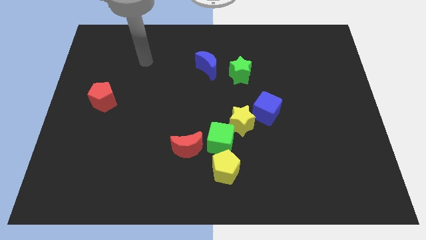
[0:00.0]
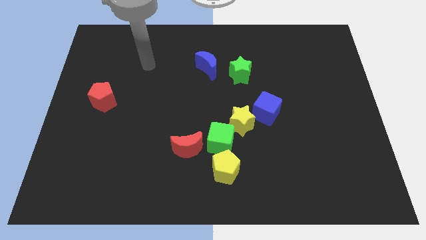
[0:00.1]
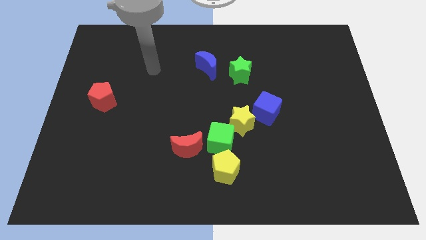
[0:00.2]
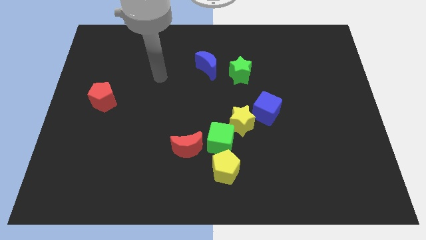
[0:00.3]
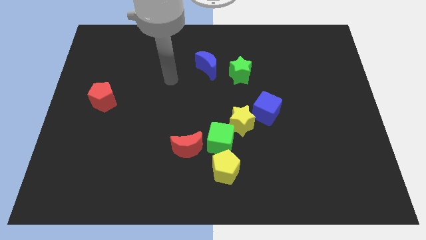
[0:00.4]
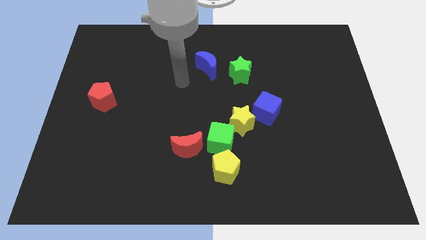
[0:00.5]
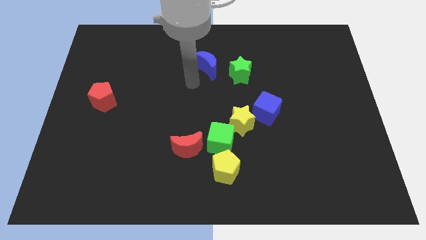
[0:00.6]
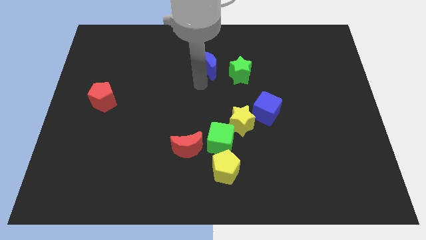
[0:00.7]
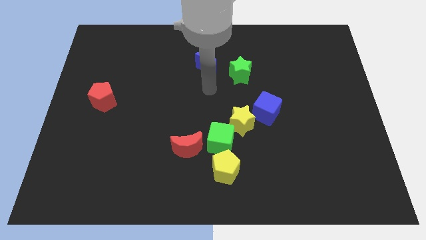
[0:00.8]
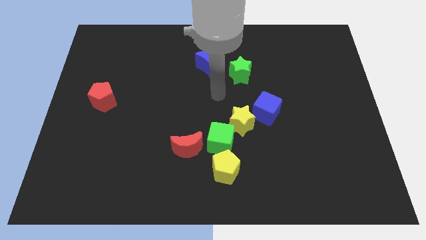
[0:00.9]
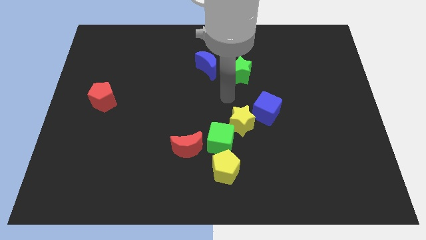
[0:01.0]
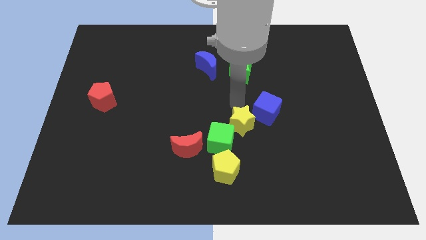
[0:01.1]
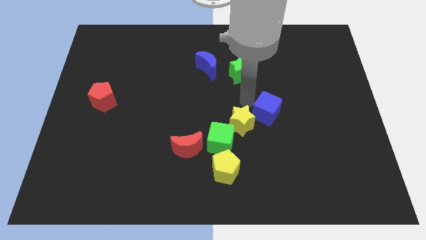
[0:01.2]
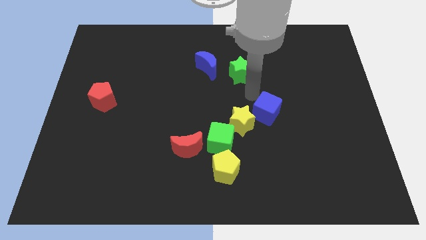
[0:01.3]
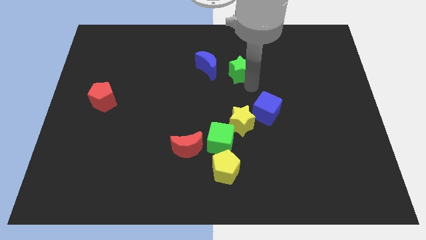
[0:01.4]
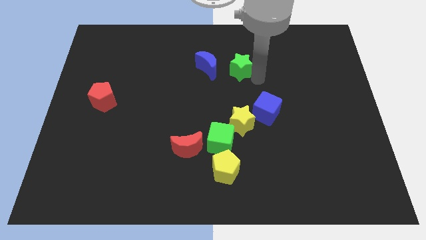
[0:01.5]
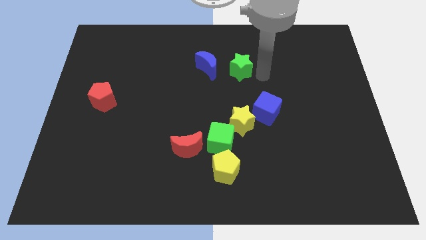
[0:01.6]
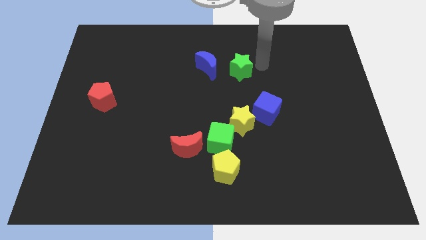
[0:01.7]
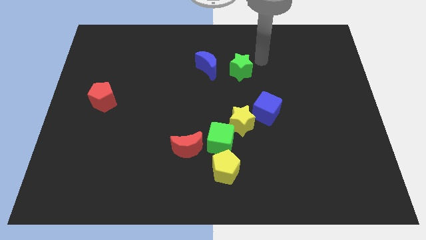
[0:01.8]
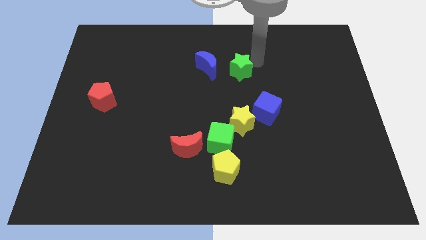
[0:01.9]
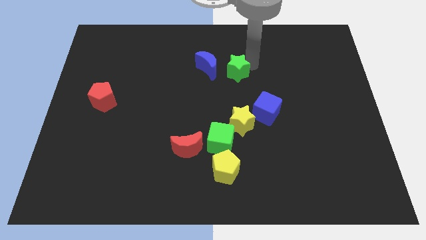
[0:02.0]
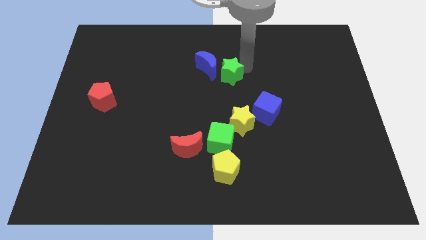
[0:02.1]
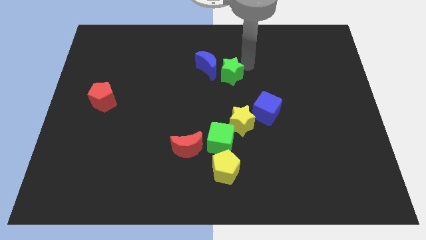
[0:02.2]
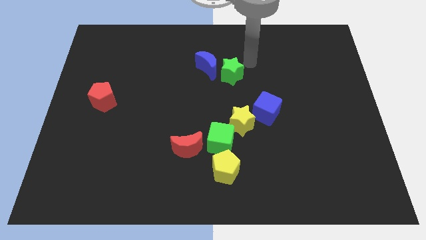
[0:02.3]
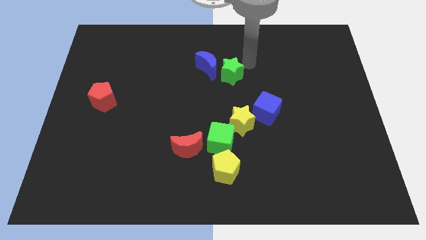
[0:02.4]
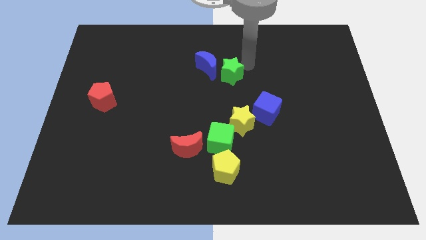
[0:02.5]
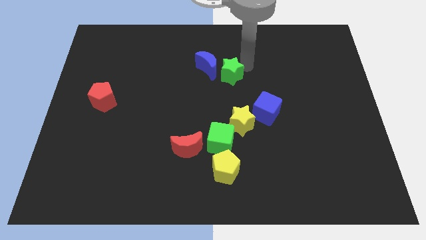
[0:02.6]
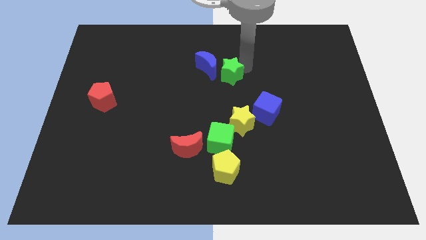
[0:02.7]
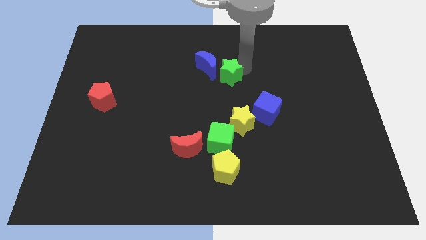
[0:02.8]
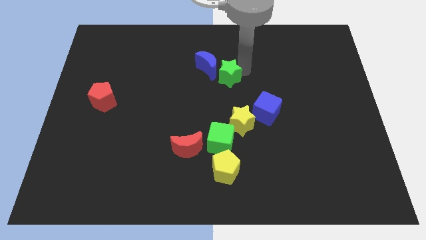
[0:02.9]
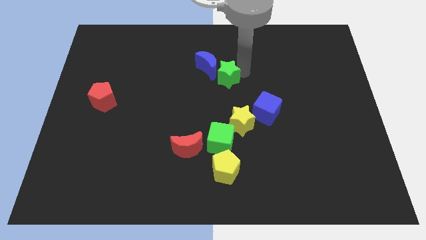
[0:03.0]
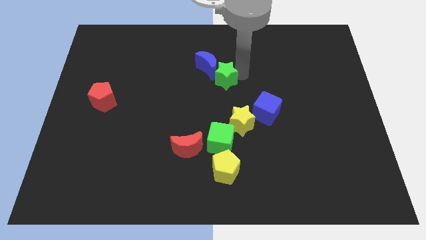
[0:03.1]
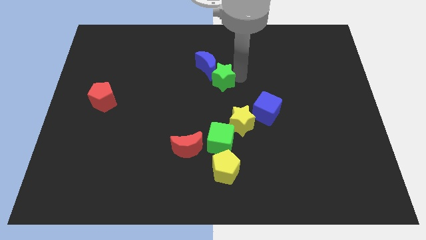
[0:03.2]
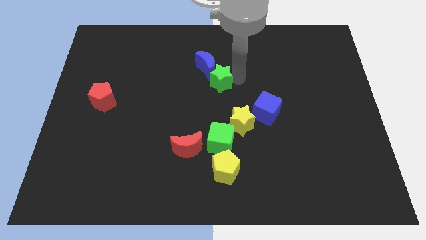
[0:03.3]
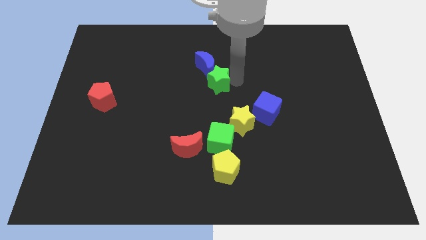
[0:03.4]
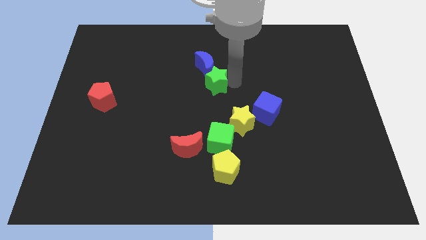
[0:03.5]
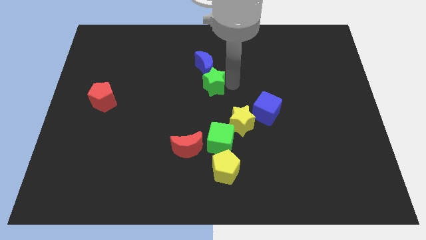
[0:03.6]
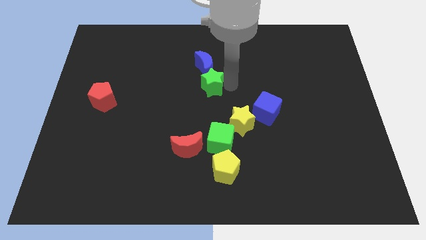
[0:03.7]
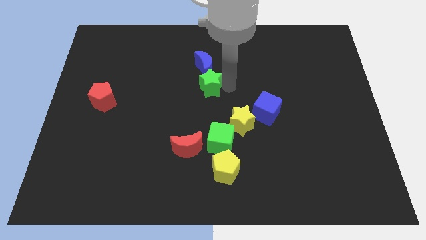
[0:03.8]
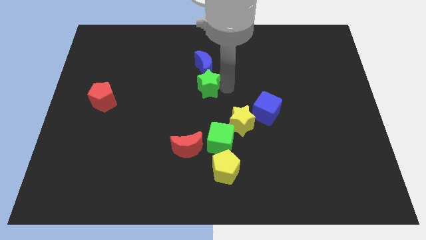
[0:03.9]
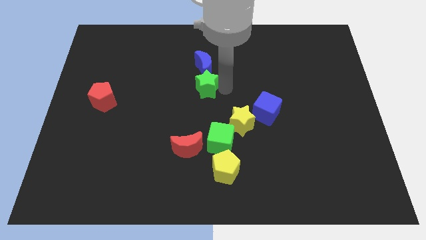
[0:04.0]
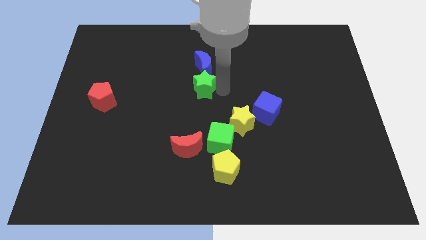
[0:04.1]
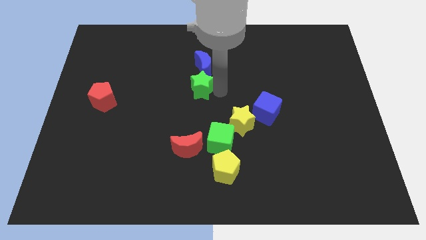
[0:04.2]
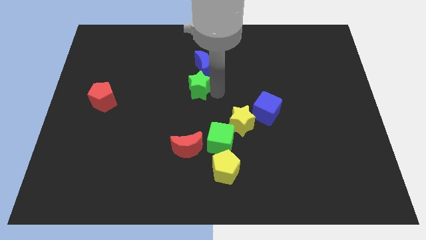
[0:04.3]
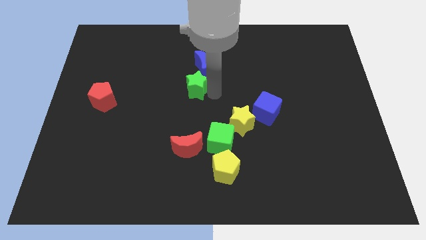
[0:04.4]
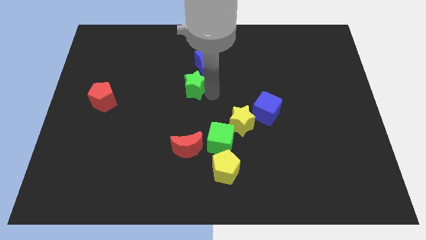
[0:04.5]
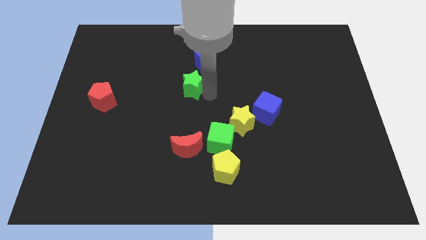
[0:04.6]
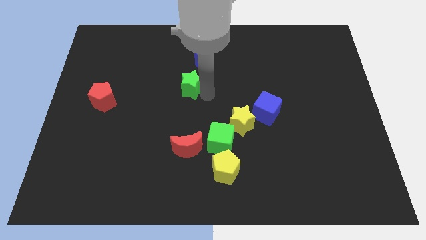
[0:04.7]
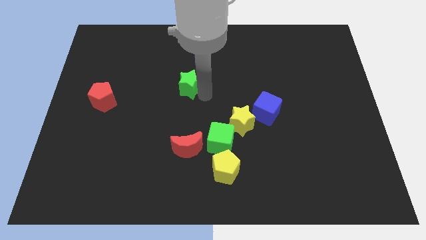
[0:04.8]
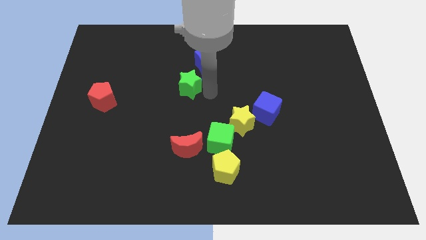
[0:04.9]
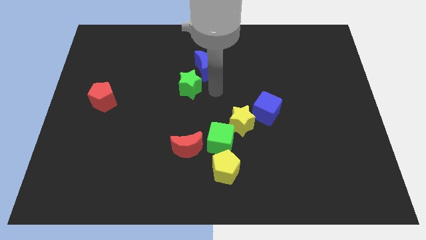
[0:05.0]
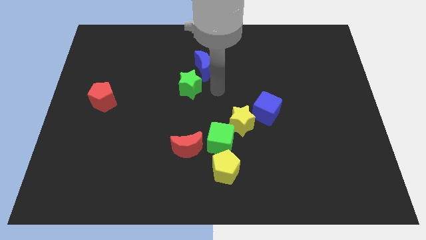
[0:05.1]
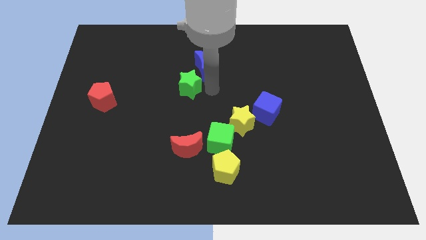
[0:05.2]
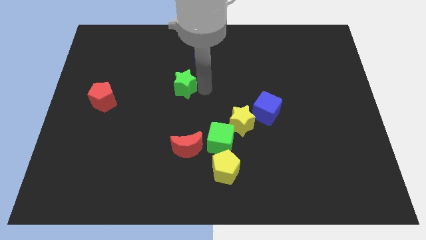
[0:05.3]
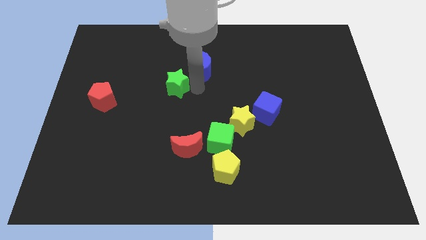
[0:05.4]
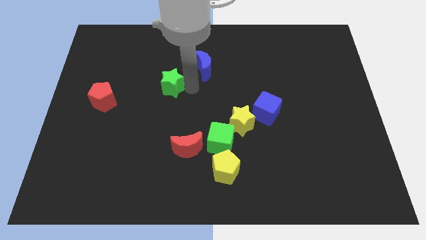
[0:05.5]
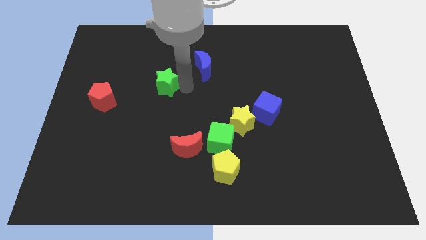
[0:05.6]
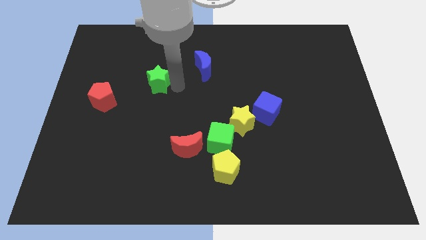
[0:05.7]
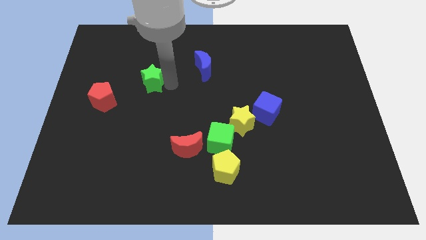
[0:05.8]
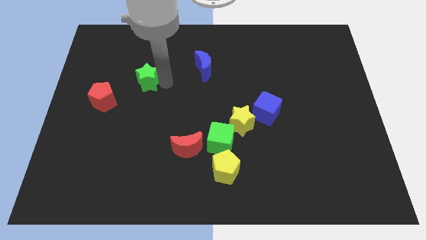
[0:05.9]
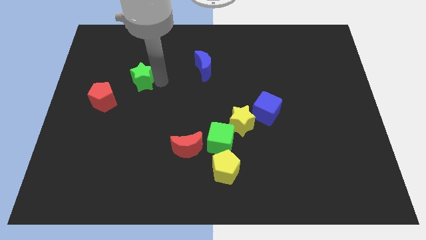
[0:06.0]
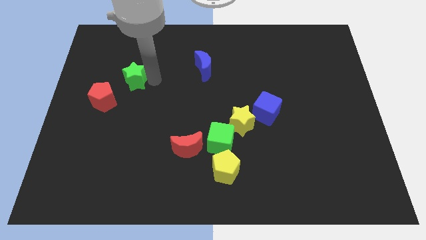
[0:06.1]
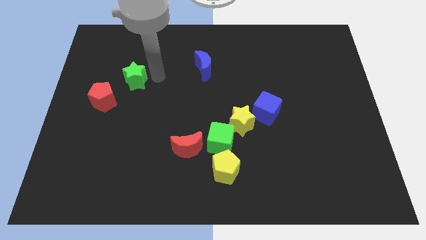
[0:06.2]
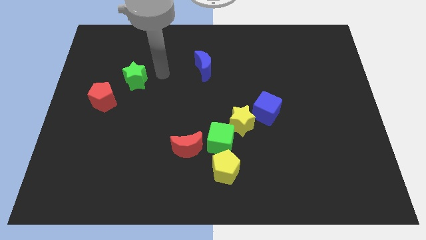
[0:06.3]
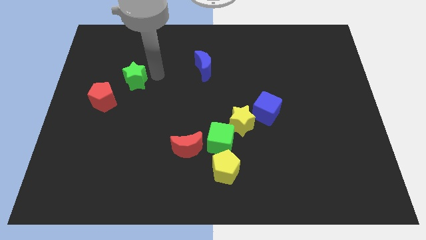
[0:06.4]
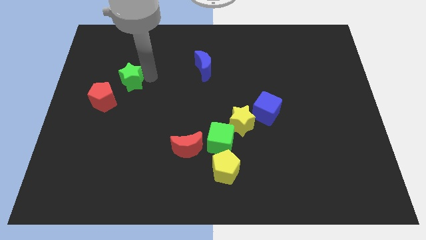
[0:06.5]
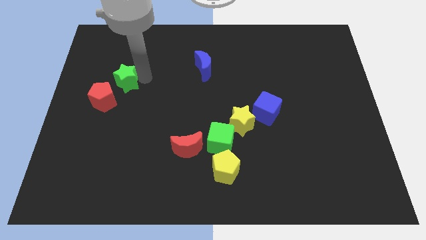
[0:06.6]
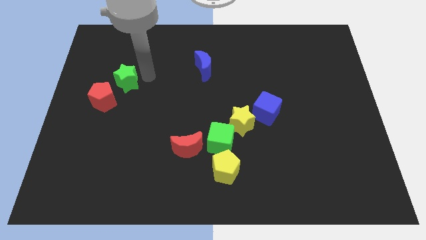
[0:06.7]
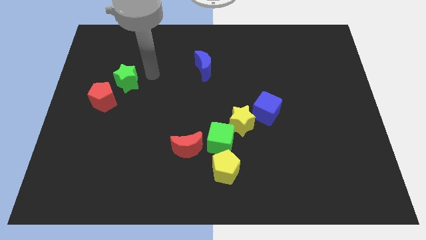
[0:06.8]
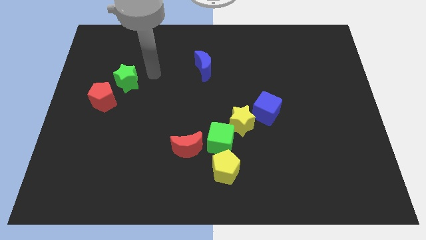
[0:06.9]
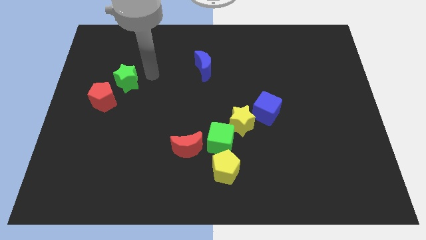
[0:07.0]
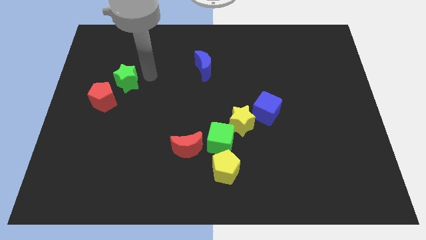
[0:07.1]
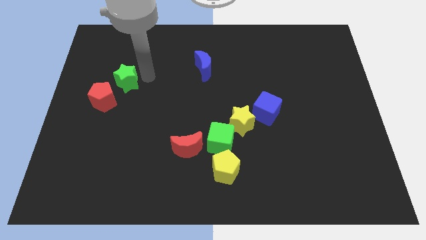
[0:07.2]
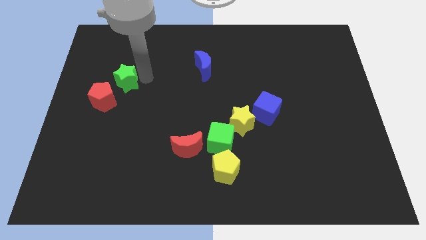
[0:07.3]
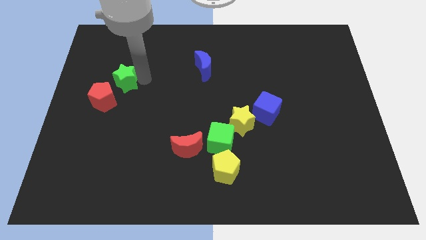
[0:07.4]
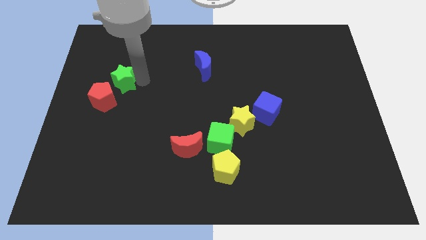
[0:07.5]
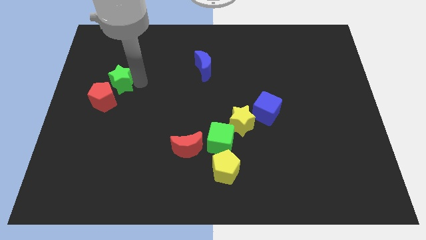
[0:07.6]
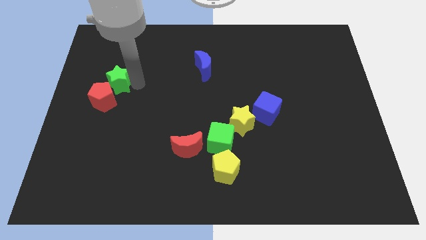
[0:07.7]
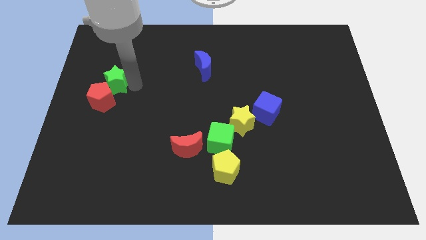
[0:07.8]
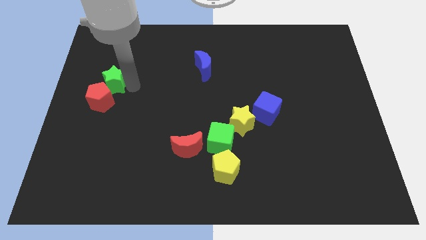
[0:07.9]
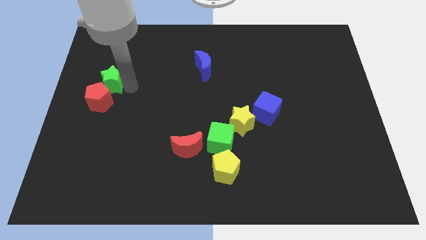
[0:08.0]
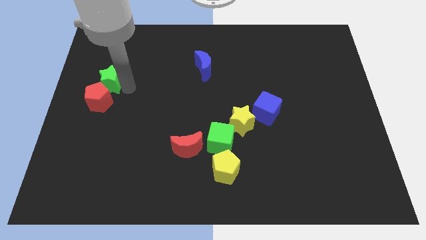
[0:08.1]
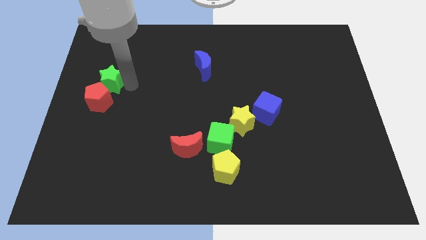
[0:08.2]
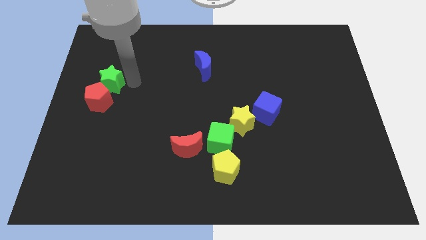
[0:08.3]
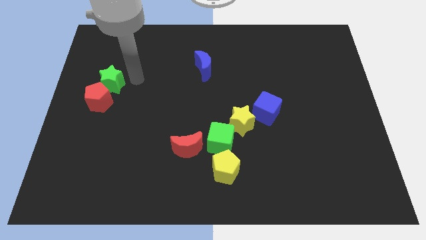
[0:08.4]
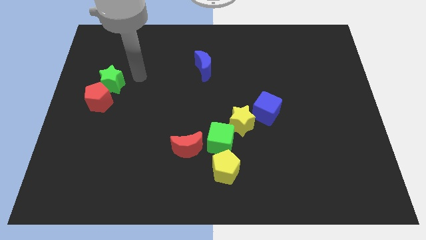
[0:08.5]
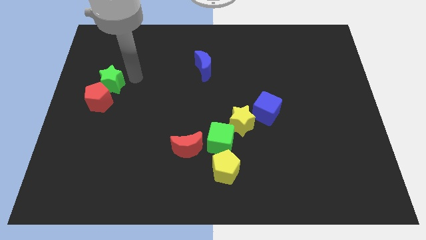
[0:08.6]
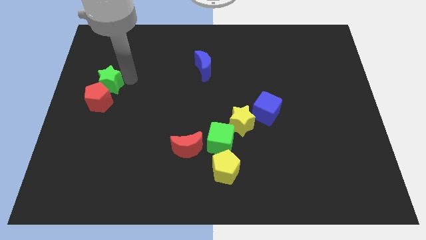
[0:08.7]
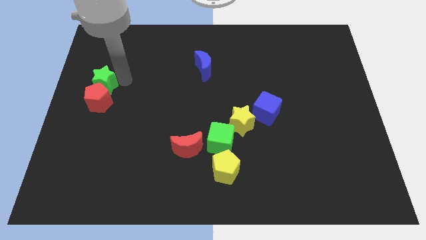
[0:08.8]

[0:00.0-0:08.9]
put the green star to the center left
